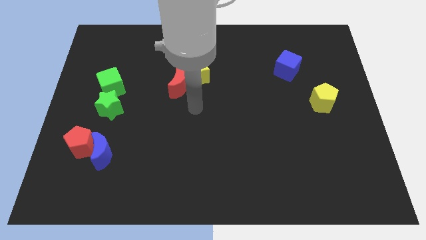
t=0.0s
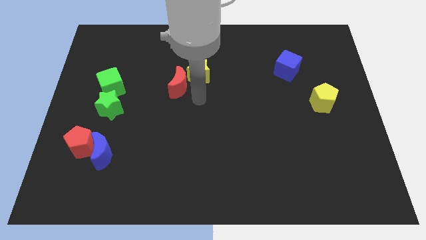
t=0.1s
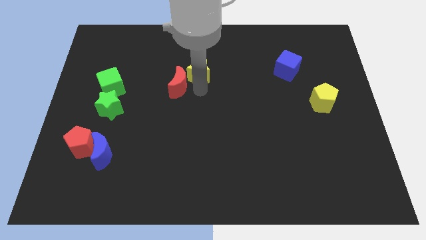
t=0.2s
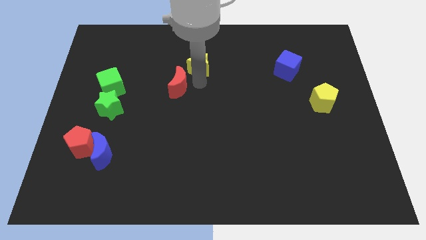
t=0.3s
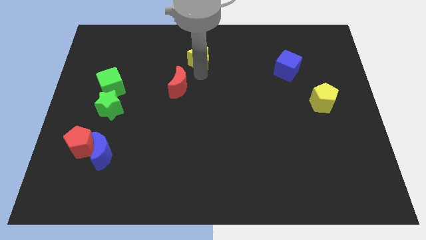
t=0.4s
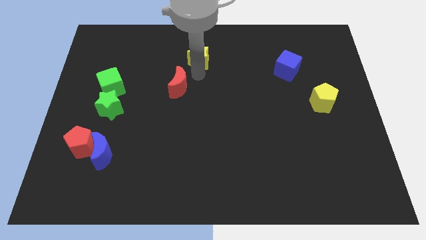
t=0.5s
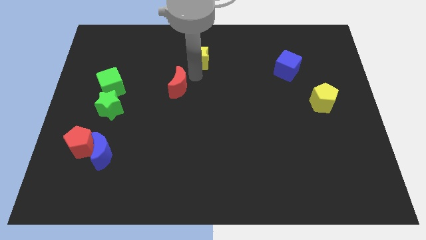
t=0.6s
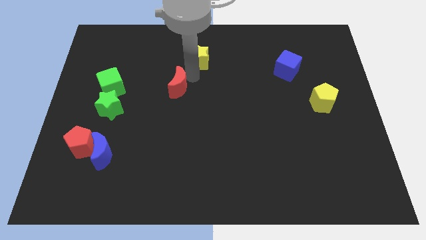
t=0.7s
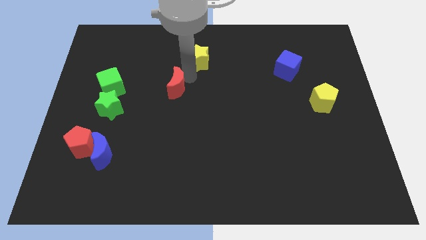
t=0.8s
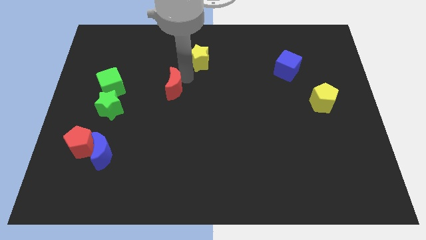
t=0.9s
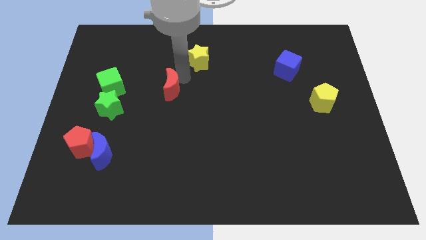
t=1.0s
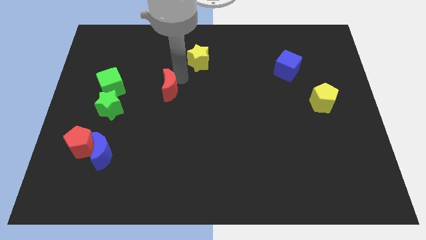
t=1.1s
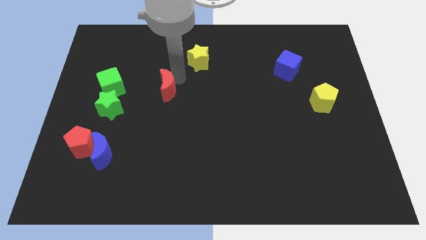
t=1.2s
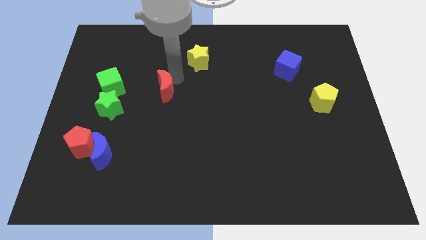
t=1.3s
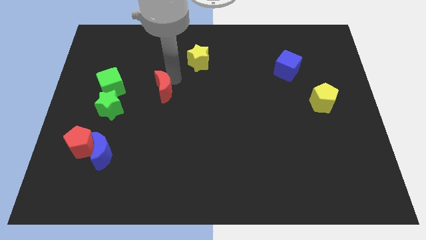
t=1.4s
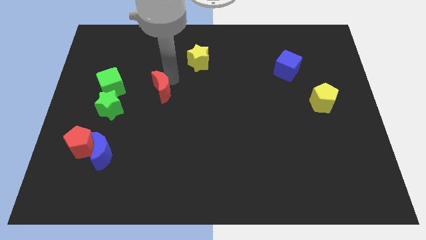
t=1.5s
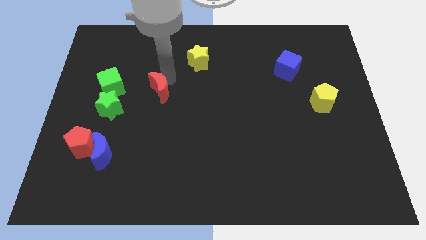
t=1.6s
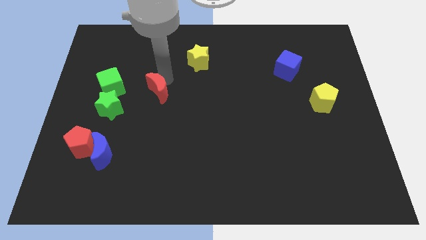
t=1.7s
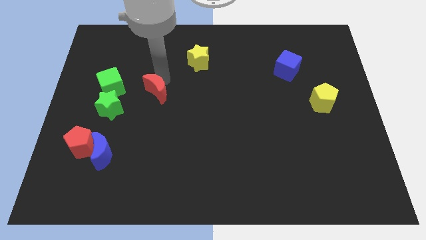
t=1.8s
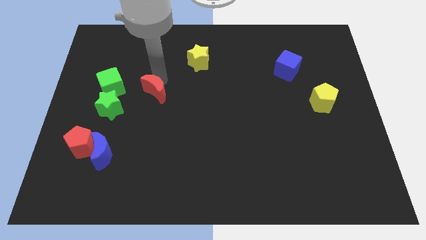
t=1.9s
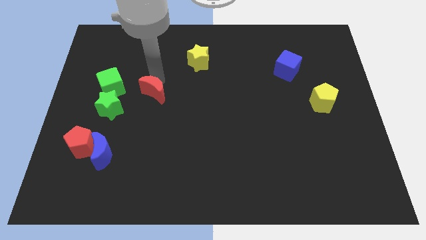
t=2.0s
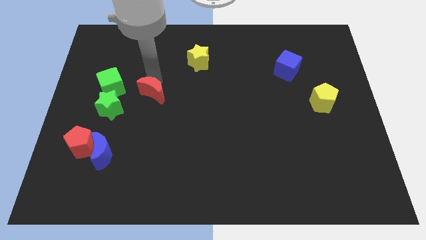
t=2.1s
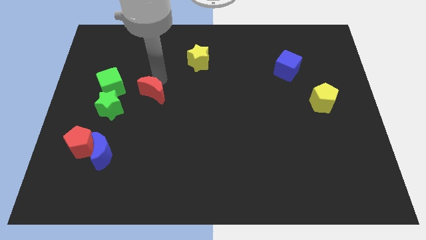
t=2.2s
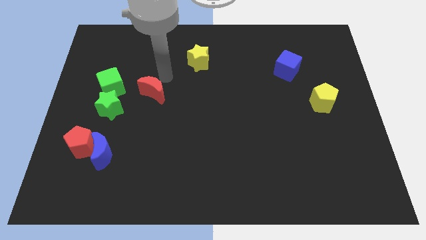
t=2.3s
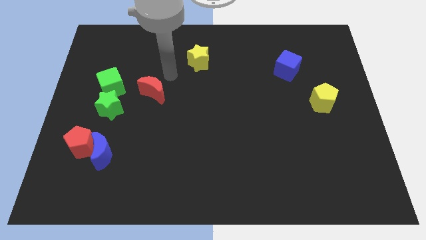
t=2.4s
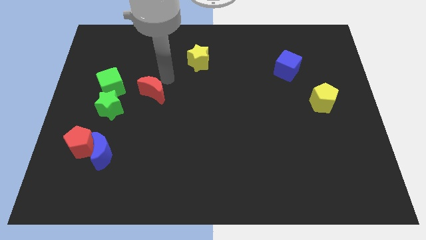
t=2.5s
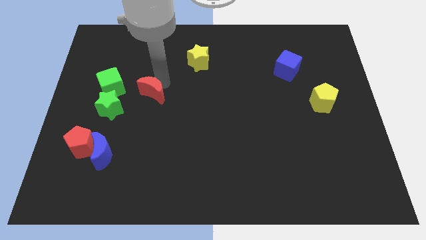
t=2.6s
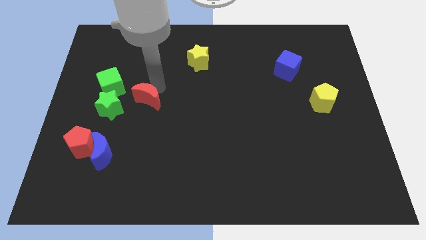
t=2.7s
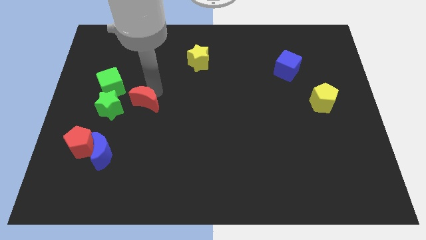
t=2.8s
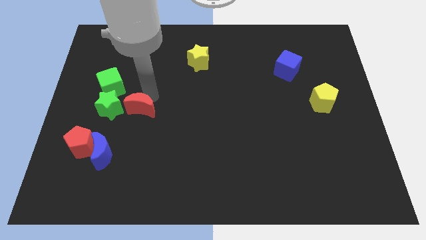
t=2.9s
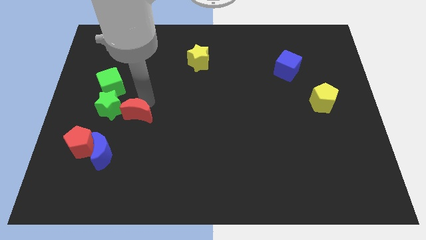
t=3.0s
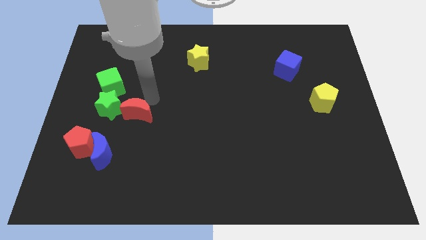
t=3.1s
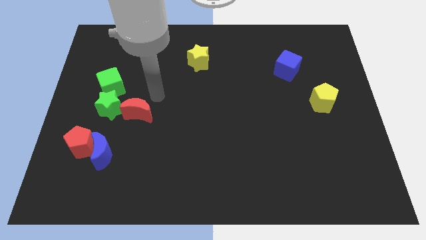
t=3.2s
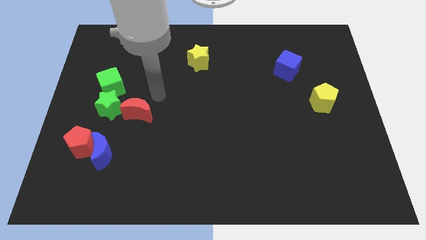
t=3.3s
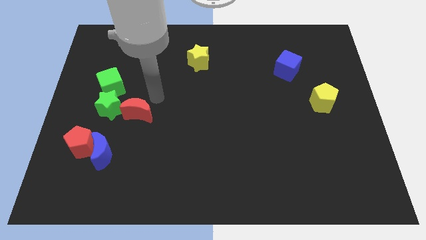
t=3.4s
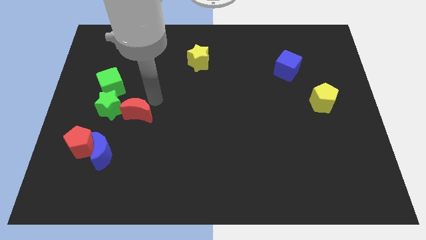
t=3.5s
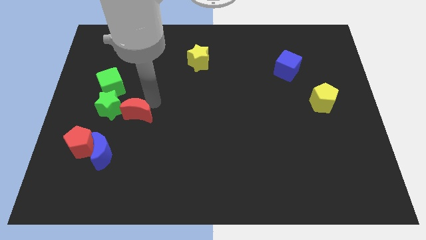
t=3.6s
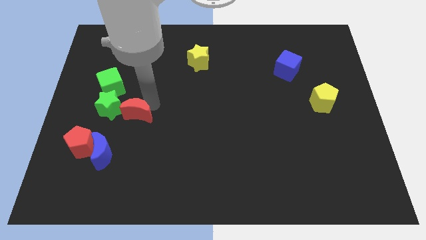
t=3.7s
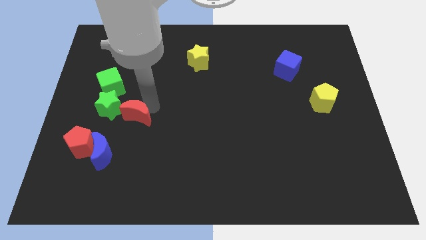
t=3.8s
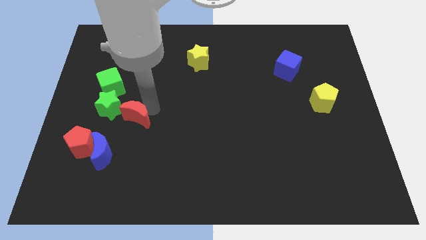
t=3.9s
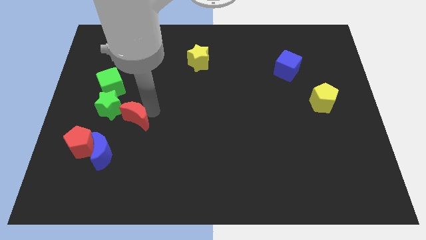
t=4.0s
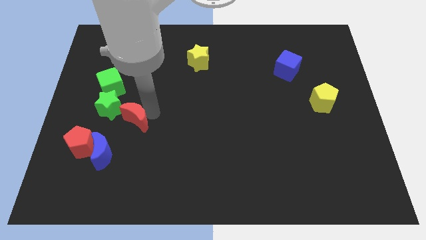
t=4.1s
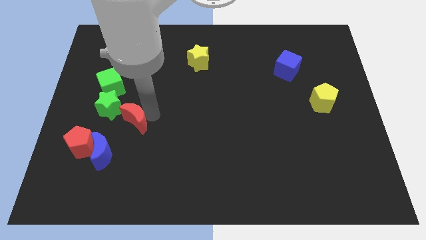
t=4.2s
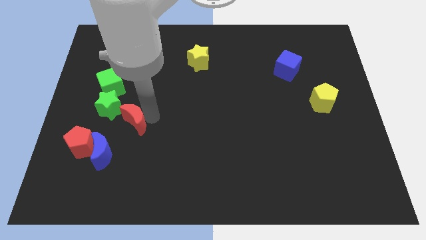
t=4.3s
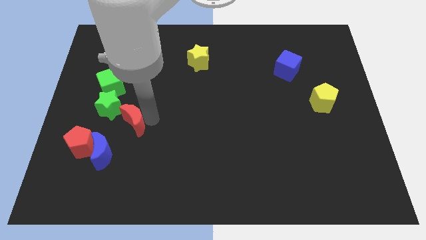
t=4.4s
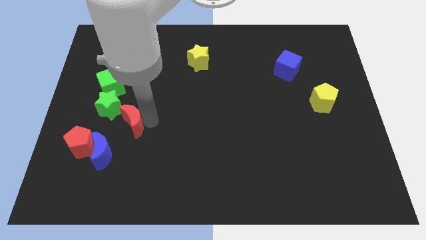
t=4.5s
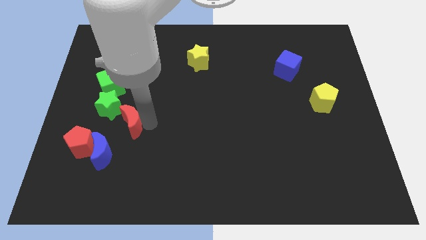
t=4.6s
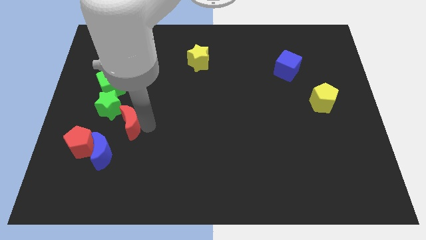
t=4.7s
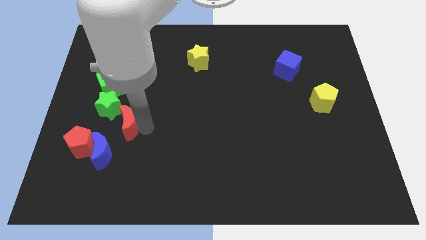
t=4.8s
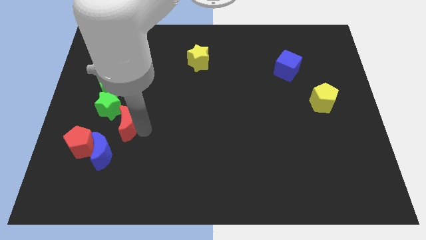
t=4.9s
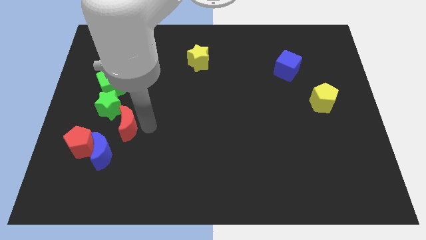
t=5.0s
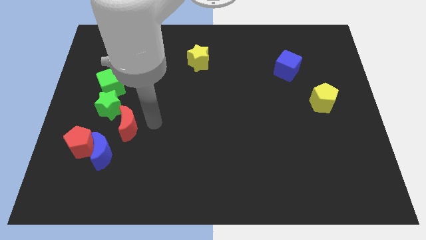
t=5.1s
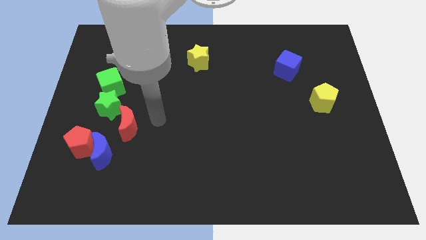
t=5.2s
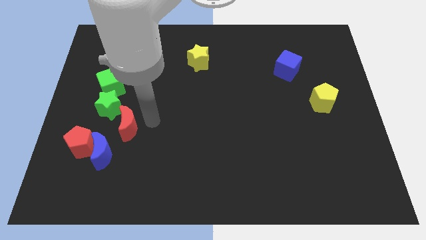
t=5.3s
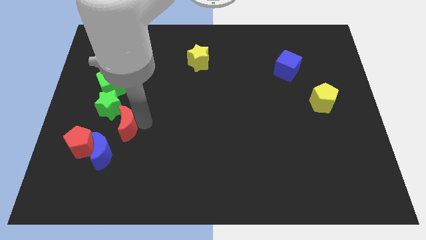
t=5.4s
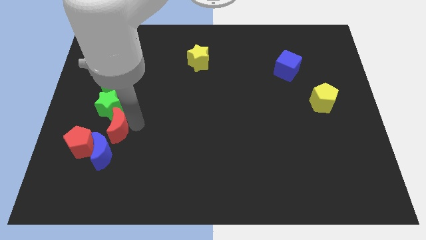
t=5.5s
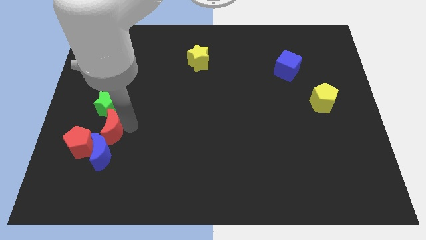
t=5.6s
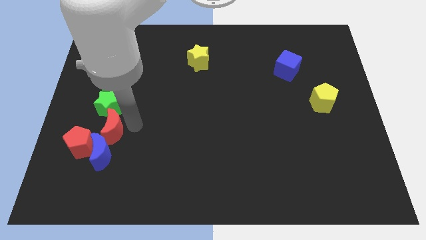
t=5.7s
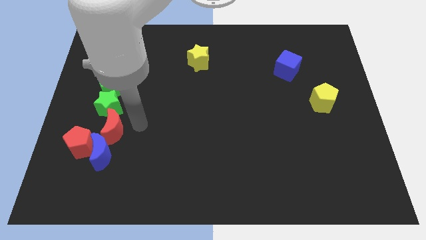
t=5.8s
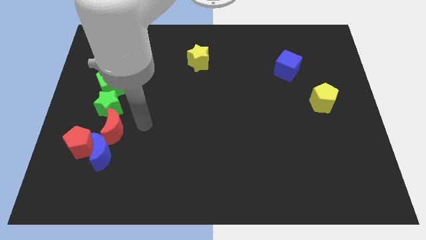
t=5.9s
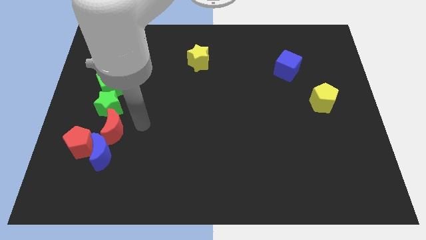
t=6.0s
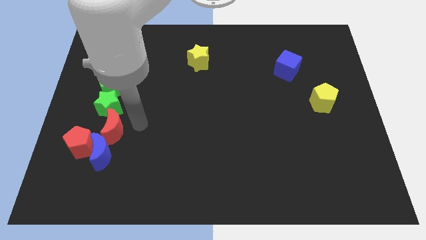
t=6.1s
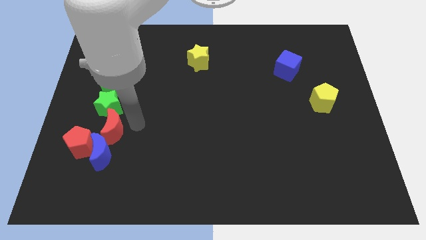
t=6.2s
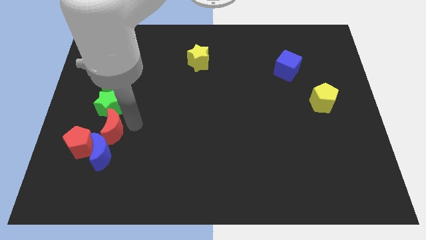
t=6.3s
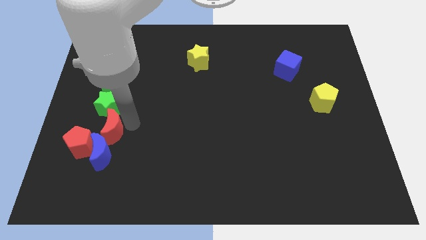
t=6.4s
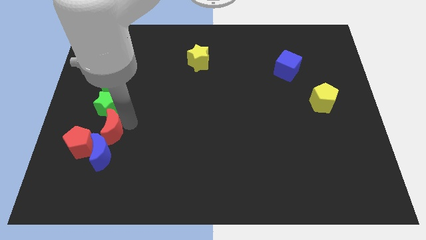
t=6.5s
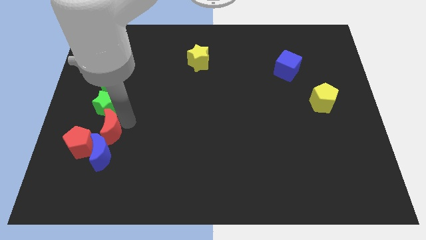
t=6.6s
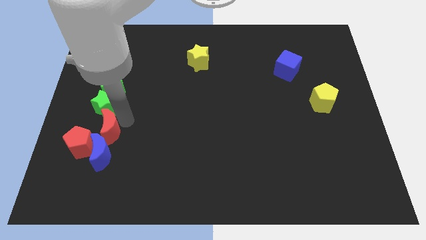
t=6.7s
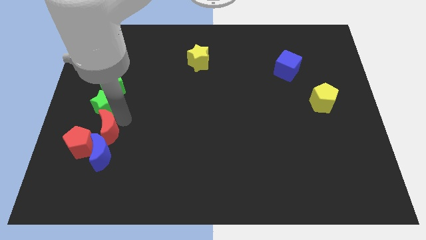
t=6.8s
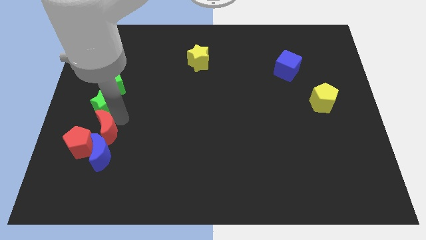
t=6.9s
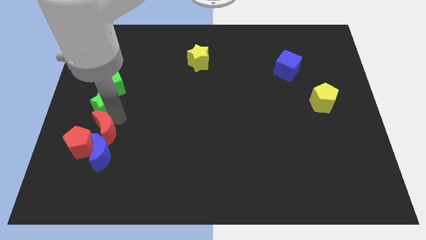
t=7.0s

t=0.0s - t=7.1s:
slide the red moon next to the red pentagon

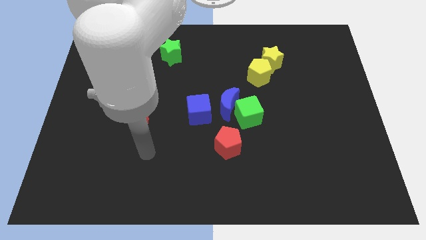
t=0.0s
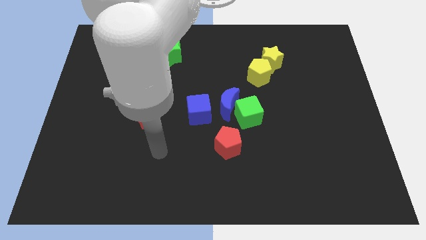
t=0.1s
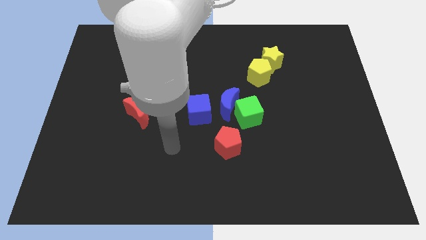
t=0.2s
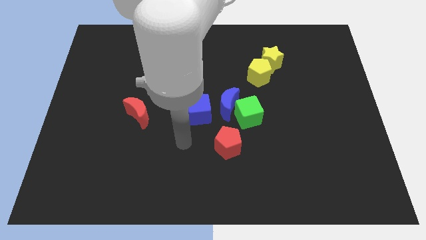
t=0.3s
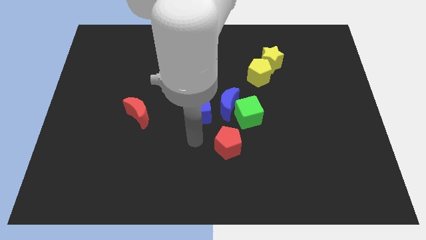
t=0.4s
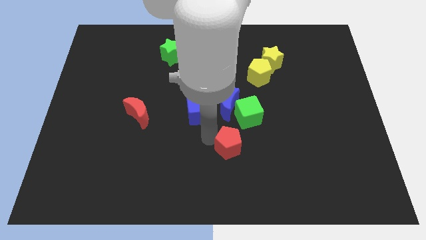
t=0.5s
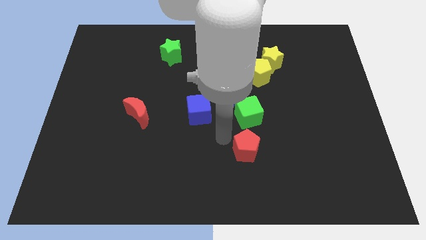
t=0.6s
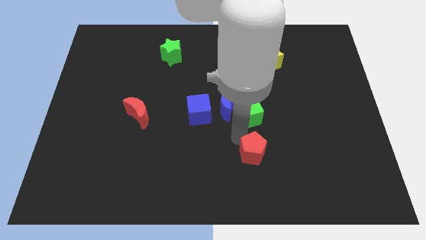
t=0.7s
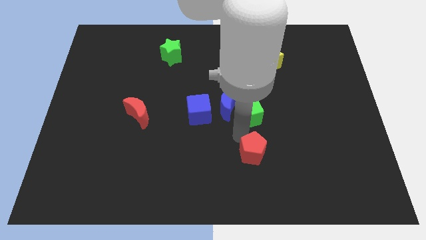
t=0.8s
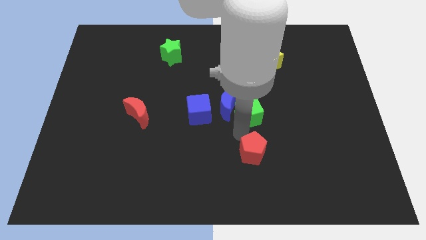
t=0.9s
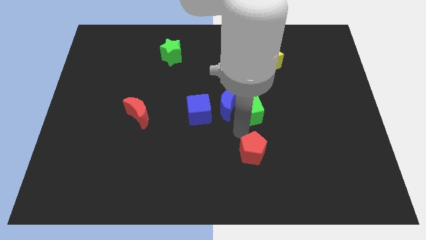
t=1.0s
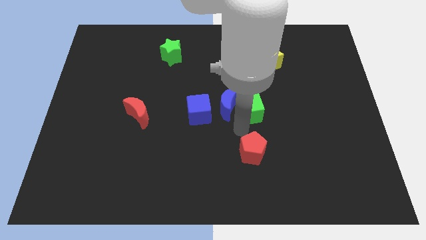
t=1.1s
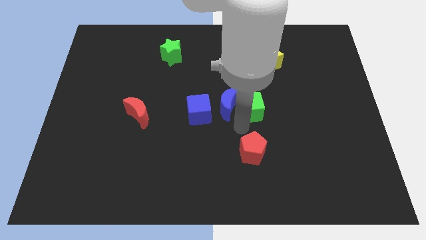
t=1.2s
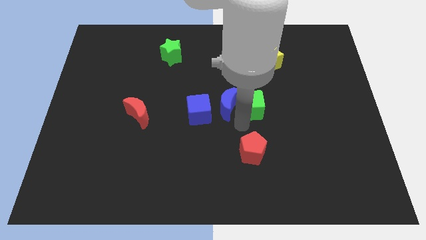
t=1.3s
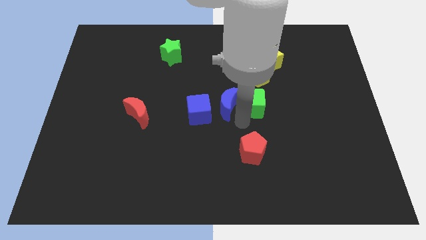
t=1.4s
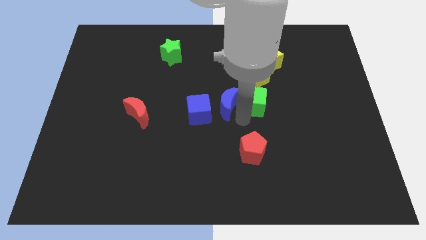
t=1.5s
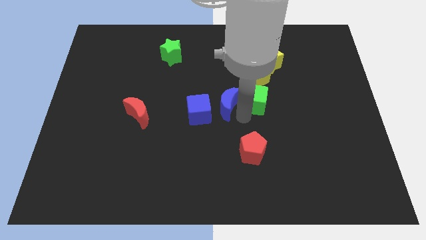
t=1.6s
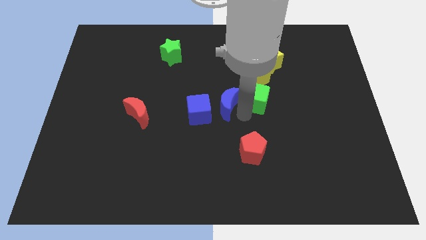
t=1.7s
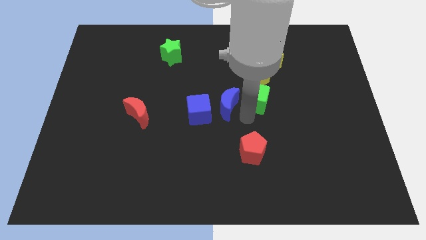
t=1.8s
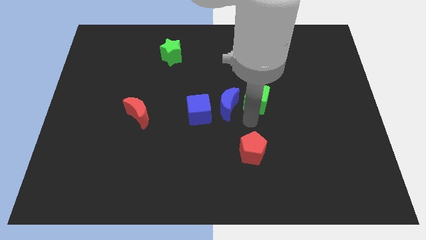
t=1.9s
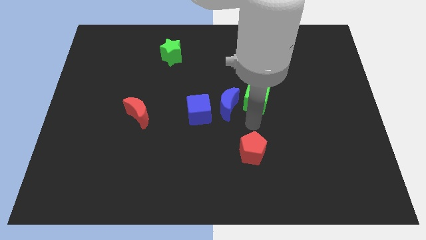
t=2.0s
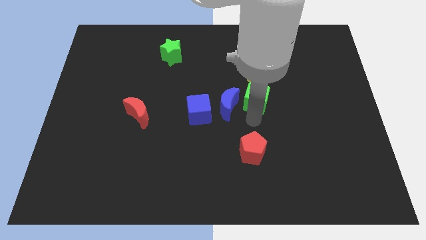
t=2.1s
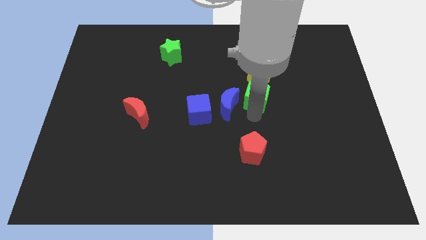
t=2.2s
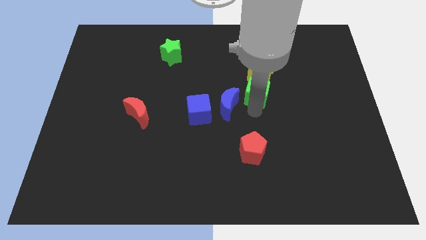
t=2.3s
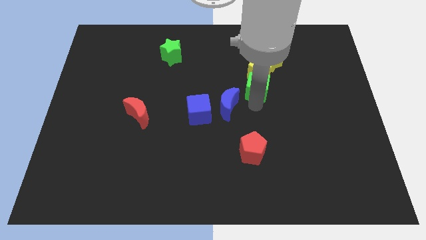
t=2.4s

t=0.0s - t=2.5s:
push the green cube next to the yellow pentagon
